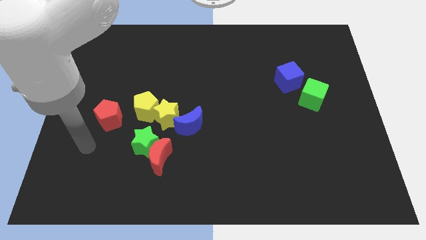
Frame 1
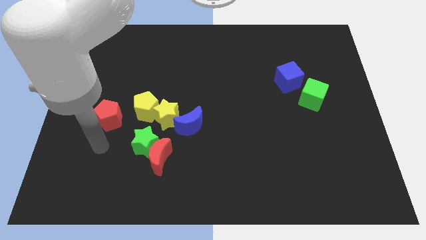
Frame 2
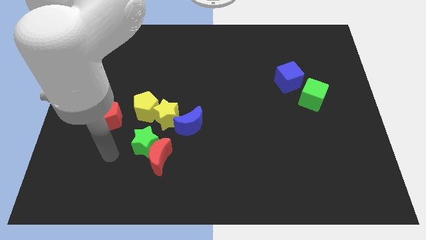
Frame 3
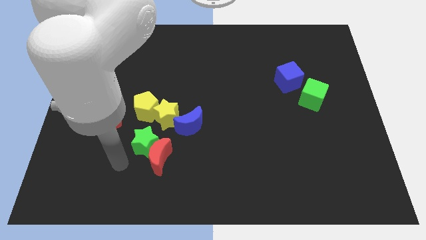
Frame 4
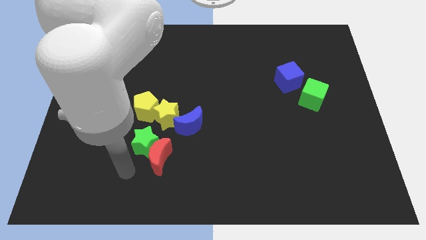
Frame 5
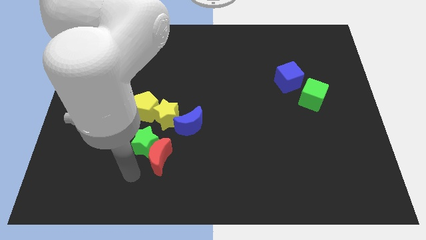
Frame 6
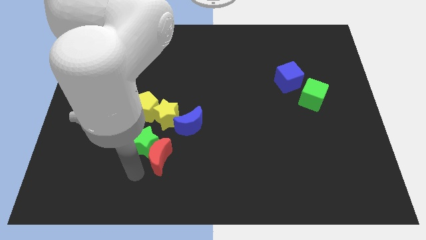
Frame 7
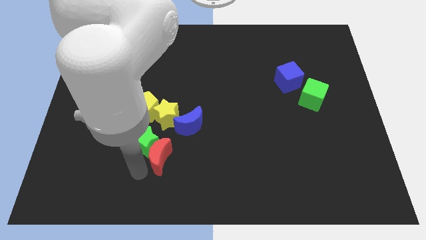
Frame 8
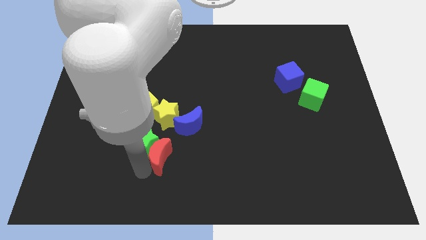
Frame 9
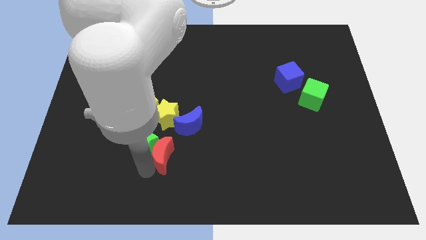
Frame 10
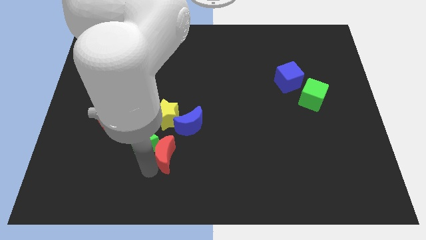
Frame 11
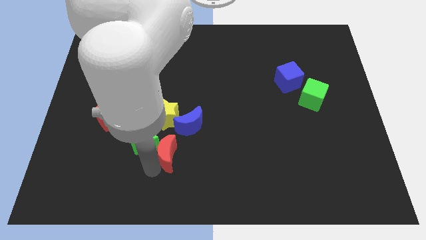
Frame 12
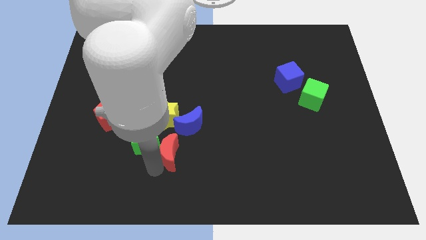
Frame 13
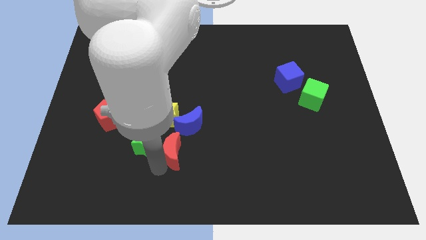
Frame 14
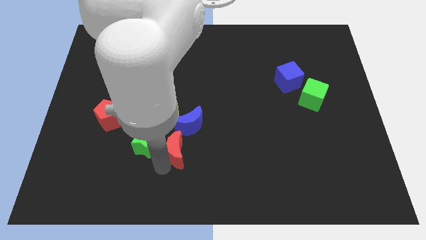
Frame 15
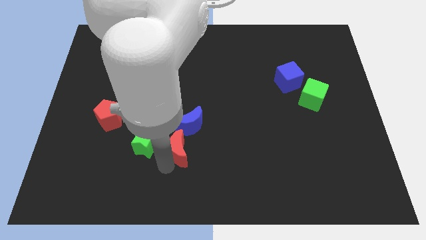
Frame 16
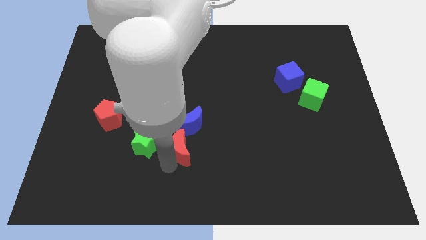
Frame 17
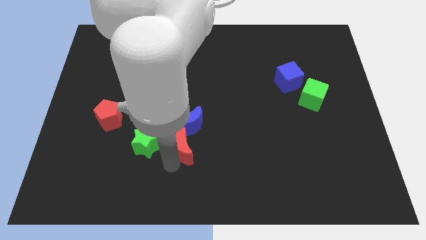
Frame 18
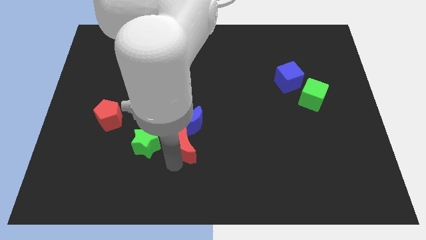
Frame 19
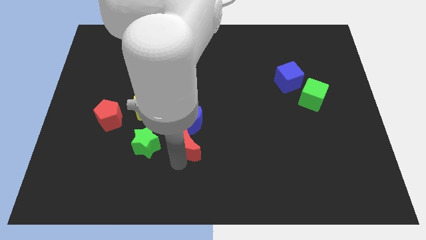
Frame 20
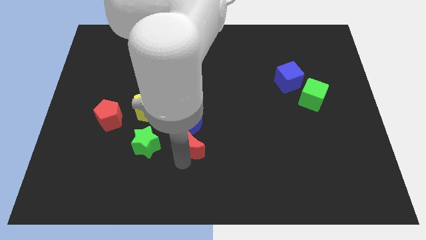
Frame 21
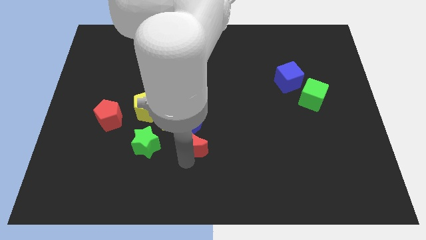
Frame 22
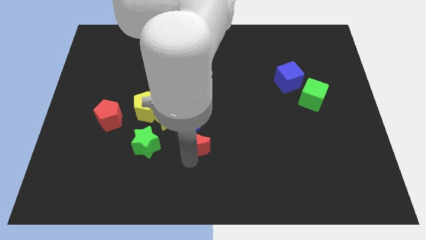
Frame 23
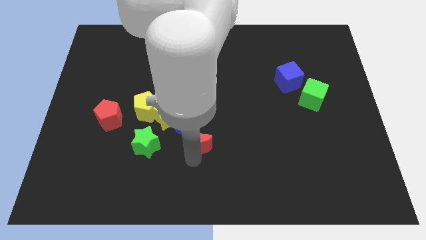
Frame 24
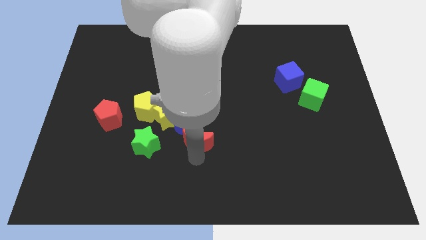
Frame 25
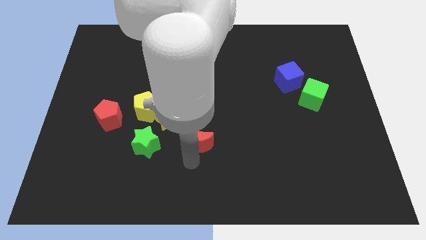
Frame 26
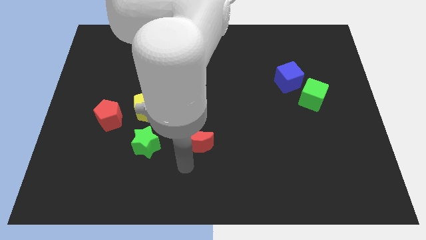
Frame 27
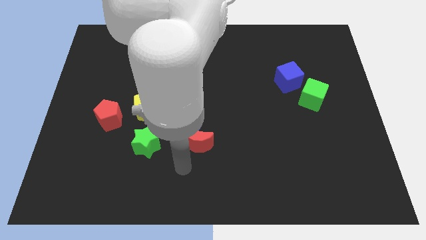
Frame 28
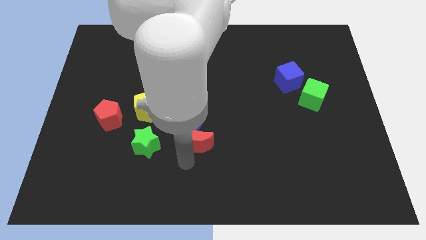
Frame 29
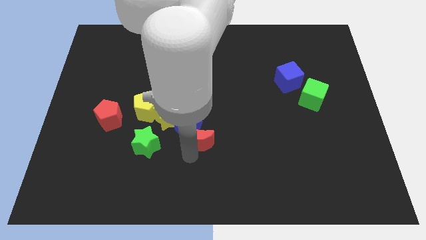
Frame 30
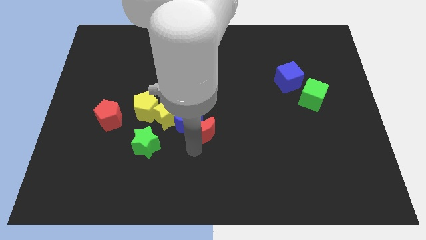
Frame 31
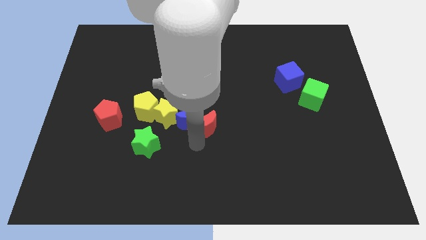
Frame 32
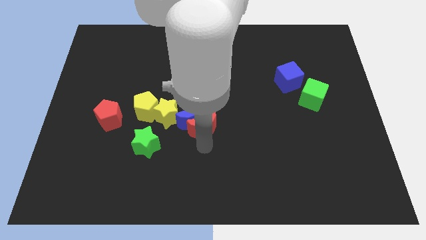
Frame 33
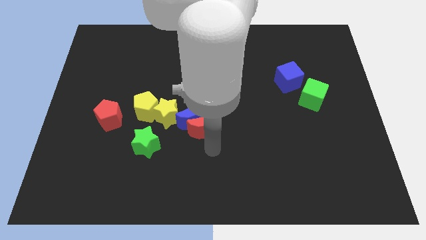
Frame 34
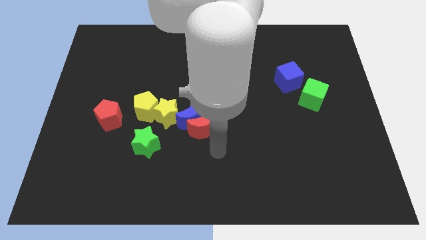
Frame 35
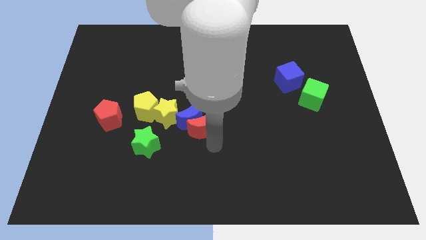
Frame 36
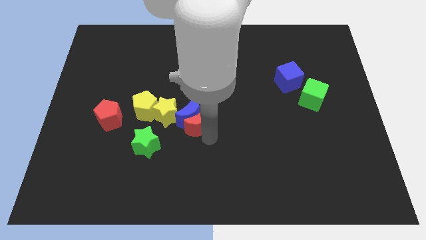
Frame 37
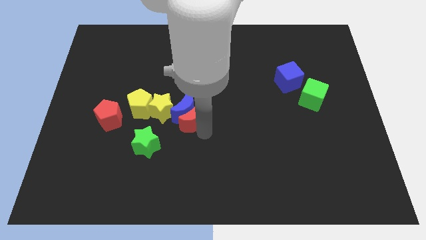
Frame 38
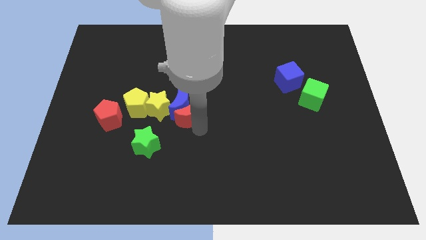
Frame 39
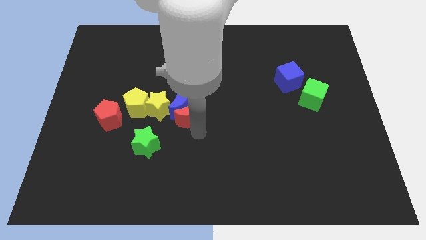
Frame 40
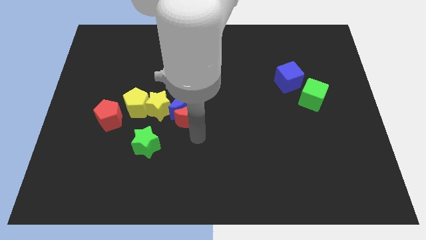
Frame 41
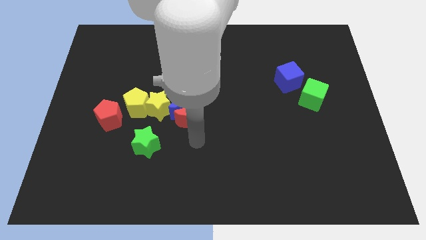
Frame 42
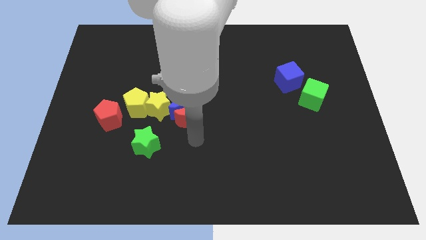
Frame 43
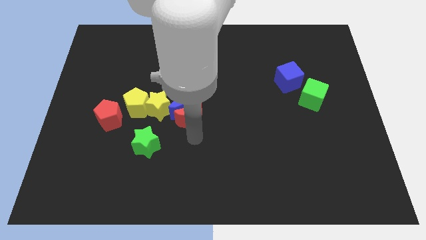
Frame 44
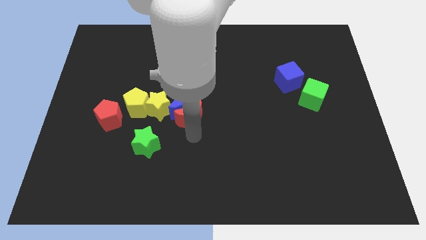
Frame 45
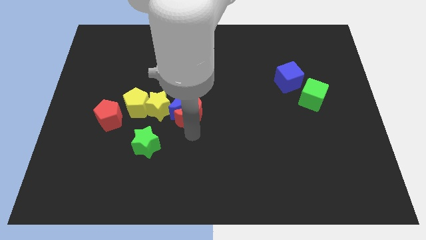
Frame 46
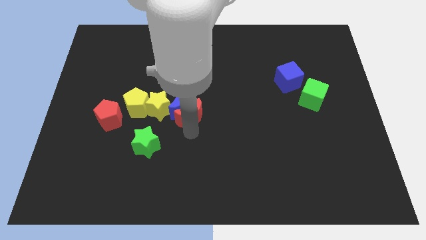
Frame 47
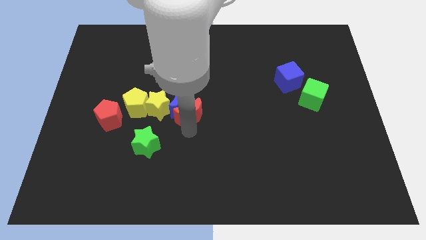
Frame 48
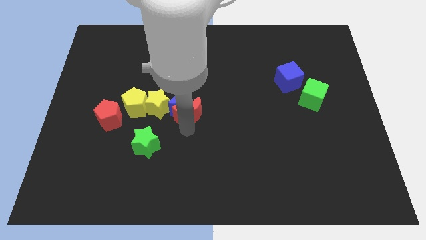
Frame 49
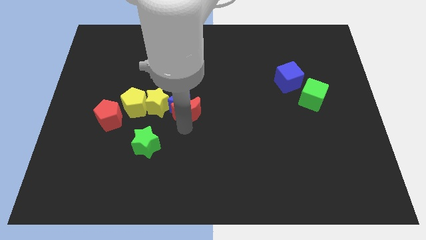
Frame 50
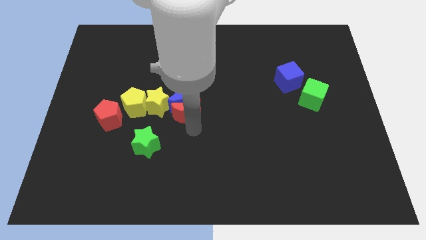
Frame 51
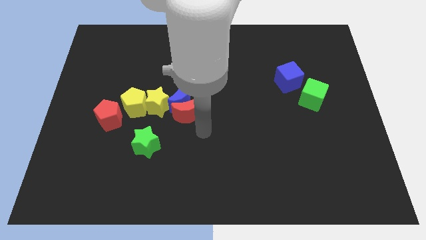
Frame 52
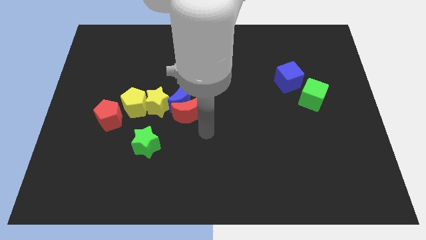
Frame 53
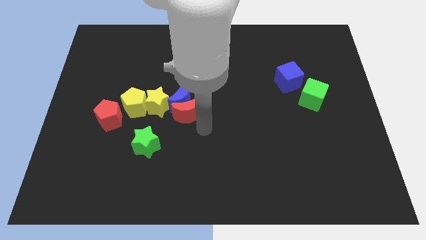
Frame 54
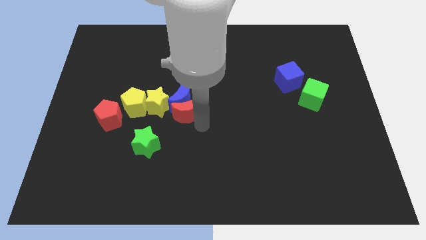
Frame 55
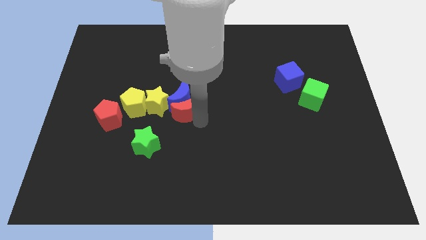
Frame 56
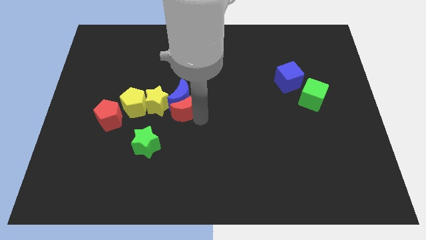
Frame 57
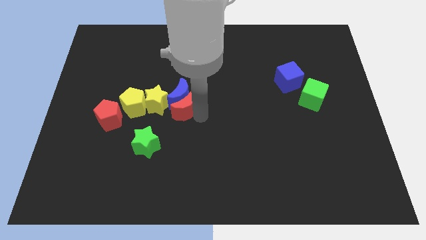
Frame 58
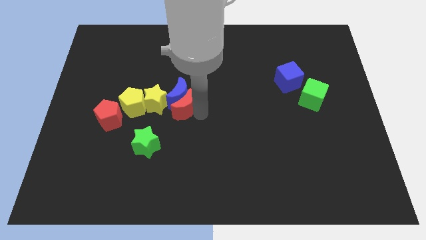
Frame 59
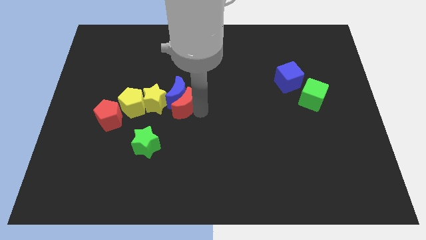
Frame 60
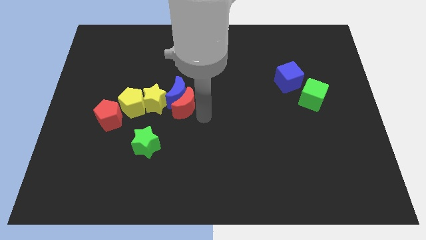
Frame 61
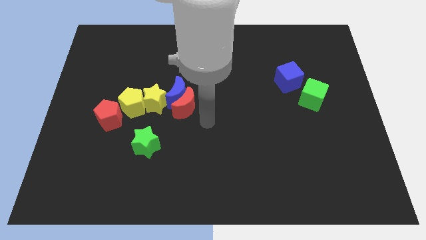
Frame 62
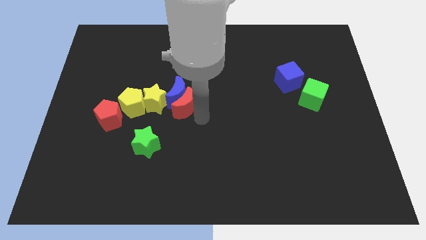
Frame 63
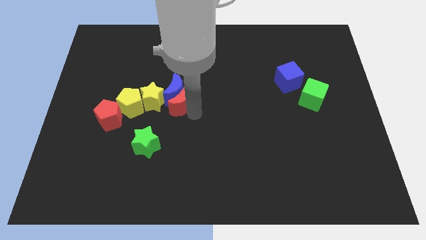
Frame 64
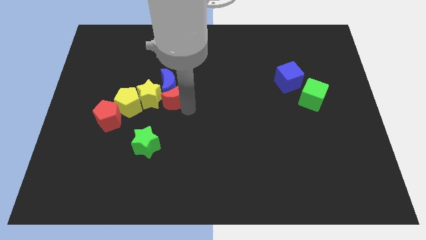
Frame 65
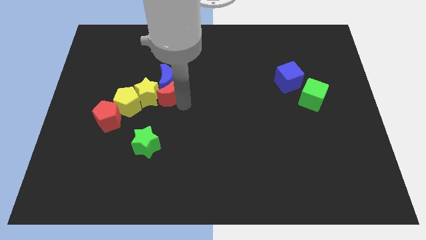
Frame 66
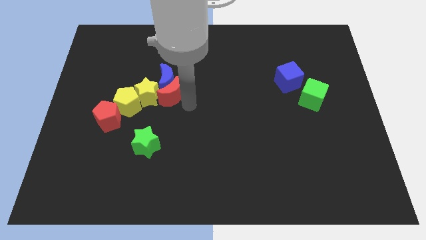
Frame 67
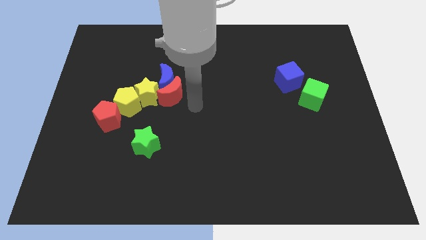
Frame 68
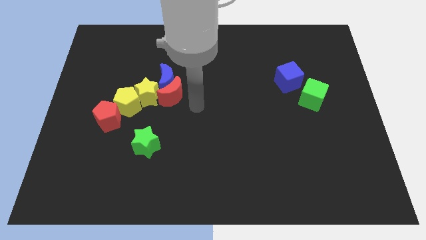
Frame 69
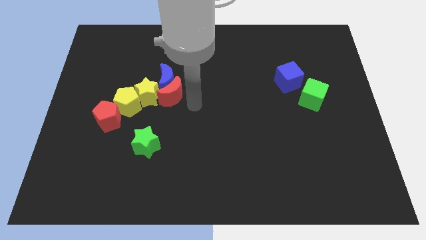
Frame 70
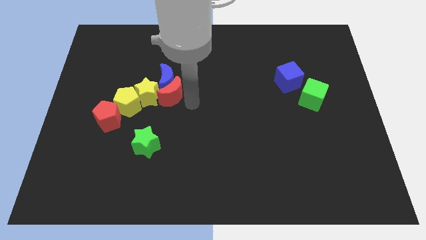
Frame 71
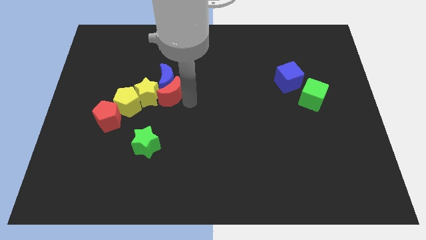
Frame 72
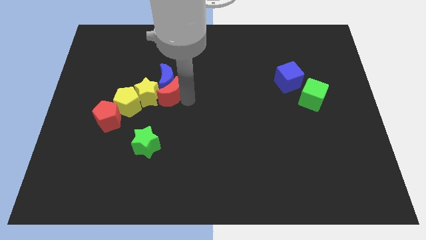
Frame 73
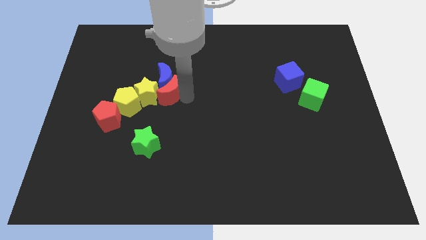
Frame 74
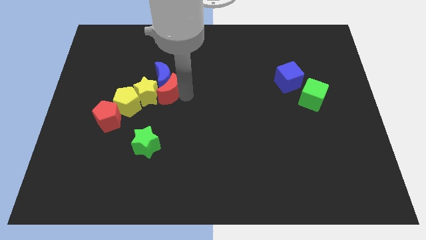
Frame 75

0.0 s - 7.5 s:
move the red moon diagonally up and to the right of the yellow pentagon
